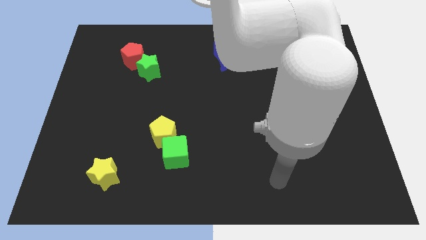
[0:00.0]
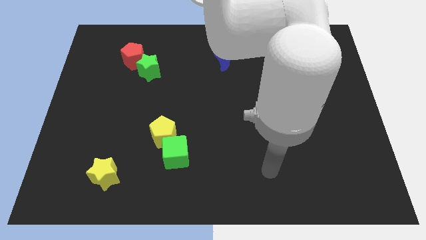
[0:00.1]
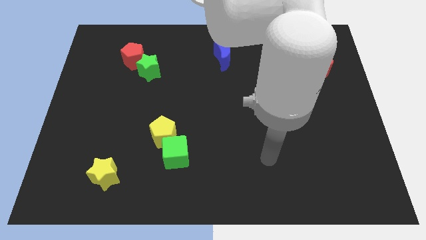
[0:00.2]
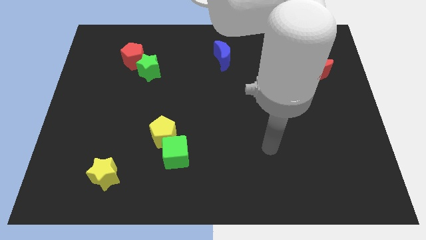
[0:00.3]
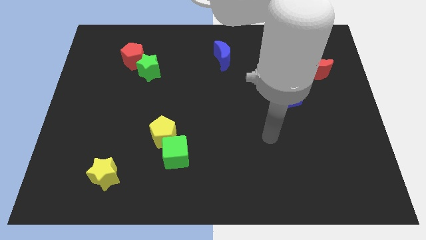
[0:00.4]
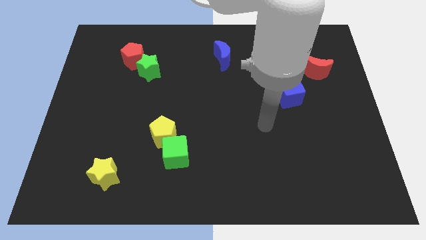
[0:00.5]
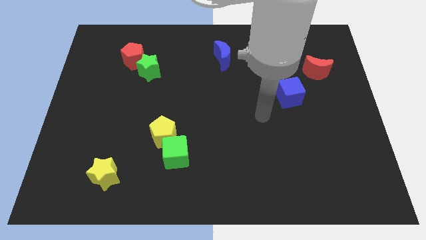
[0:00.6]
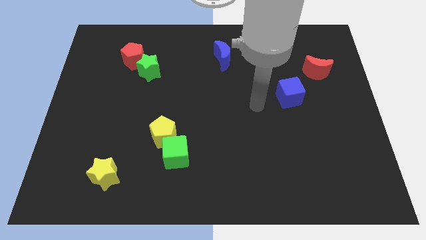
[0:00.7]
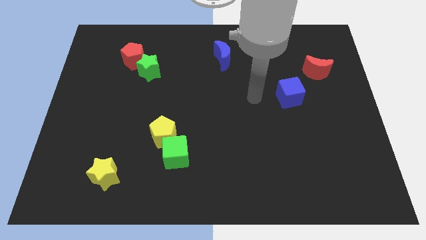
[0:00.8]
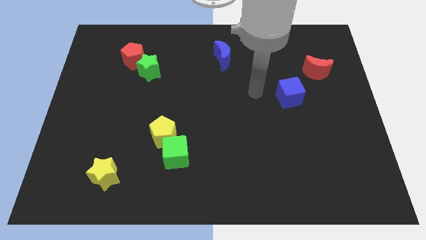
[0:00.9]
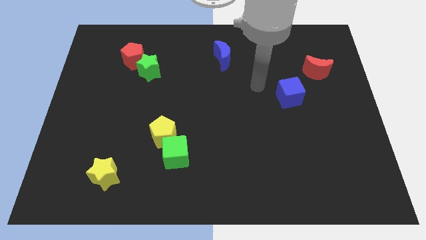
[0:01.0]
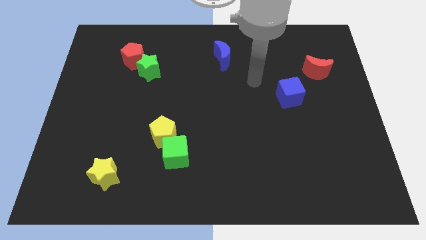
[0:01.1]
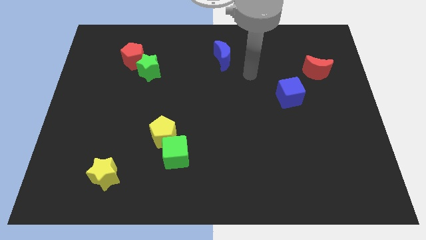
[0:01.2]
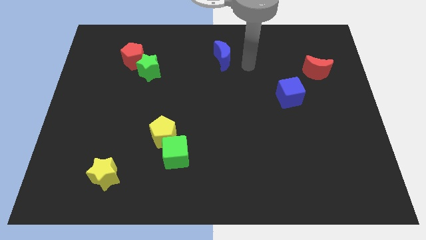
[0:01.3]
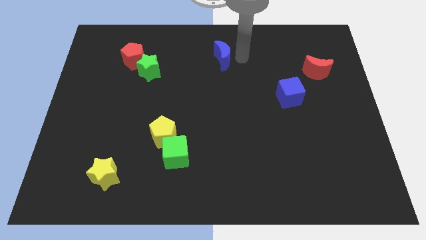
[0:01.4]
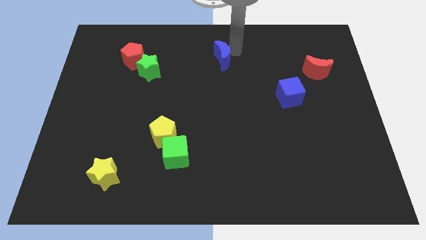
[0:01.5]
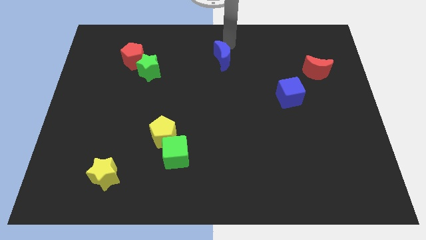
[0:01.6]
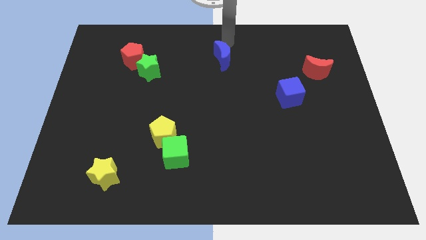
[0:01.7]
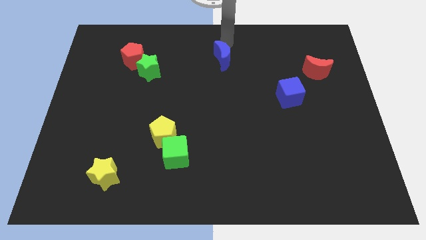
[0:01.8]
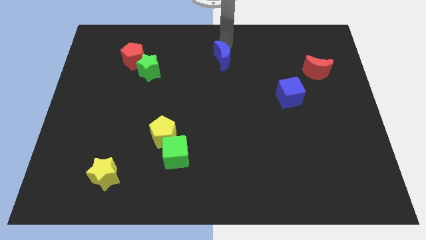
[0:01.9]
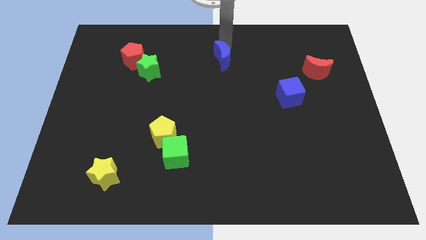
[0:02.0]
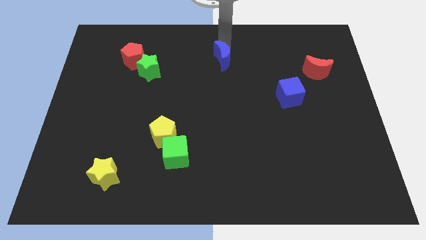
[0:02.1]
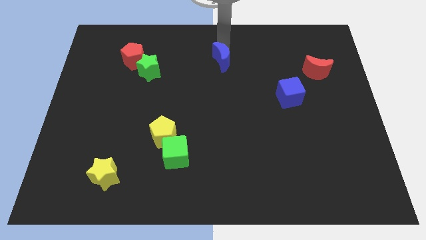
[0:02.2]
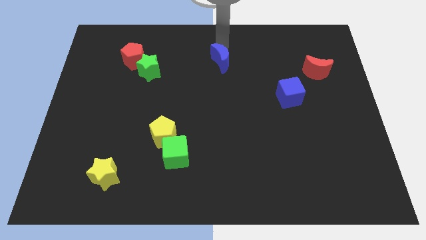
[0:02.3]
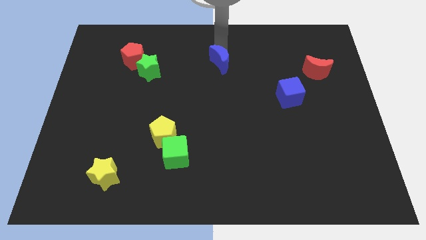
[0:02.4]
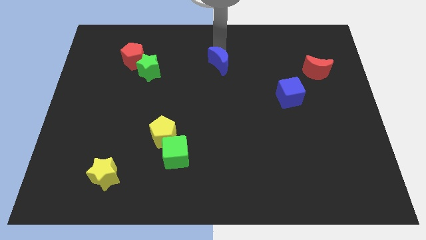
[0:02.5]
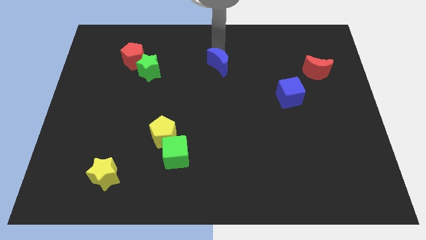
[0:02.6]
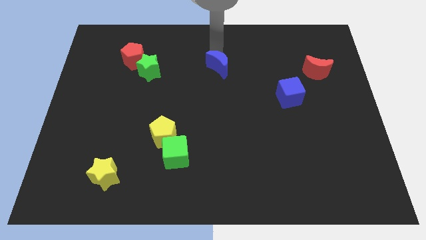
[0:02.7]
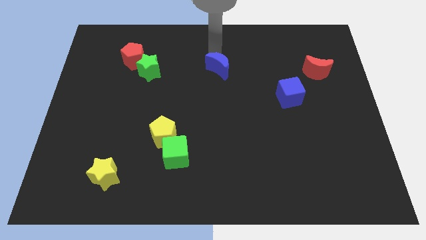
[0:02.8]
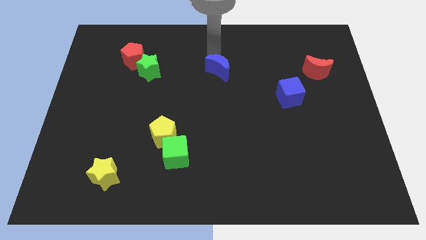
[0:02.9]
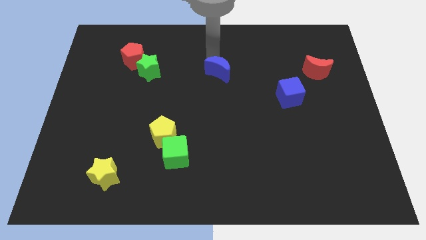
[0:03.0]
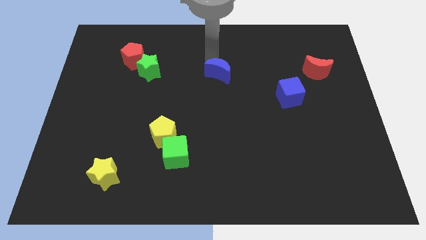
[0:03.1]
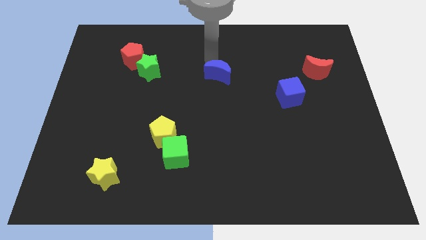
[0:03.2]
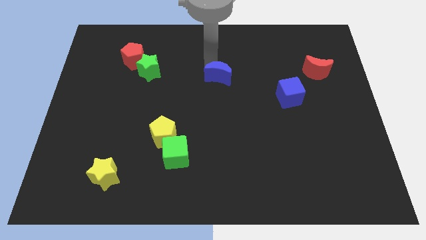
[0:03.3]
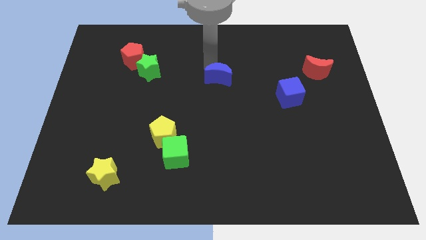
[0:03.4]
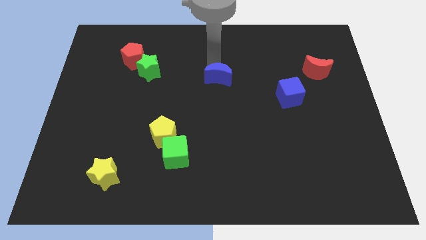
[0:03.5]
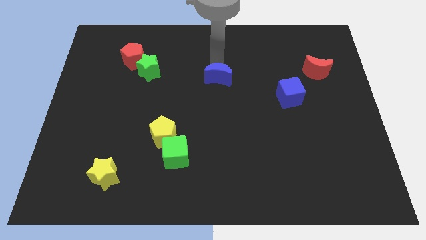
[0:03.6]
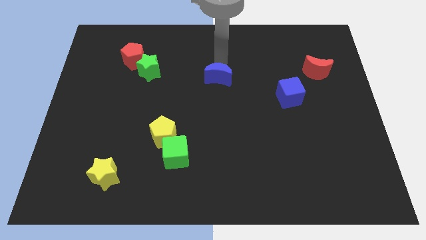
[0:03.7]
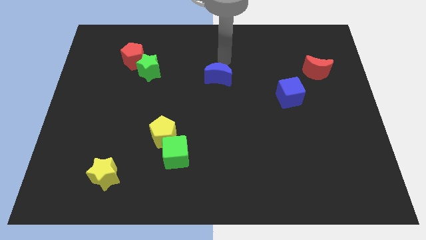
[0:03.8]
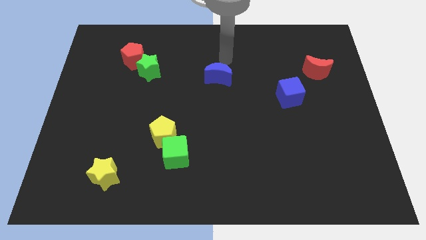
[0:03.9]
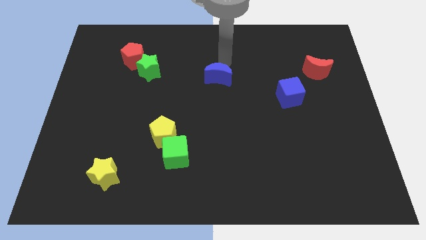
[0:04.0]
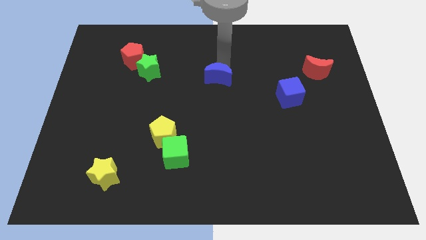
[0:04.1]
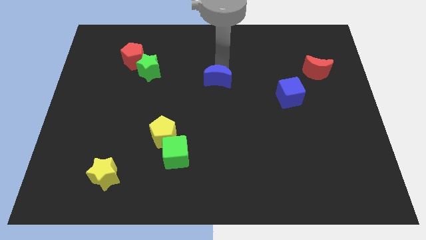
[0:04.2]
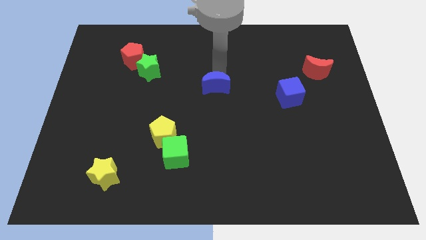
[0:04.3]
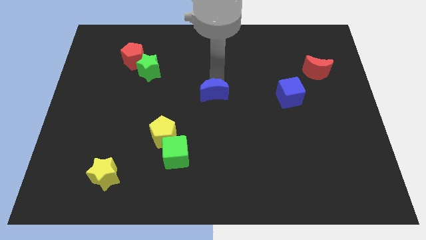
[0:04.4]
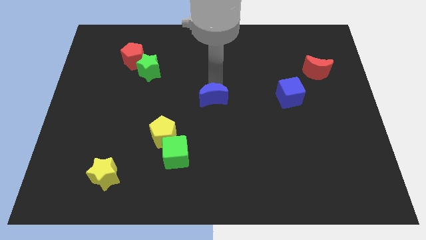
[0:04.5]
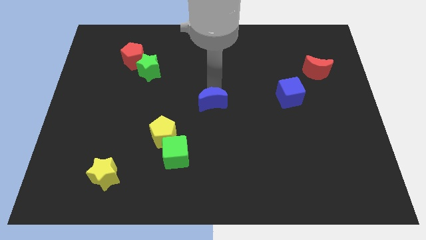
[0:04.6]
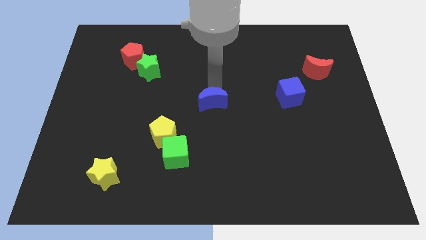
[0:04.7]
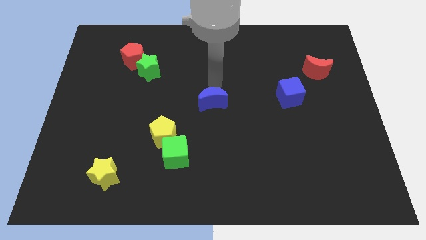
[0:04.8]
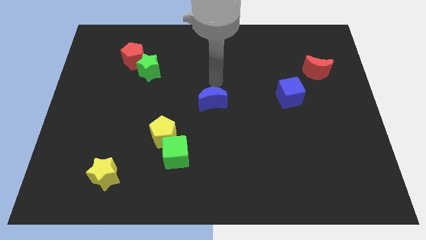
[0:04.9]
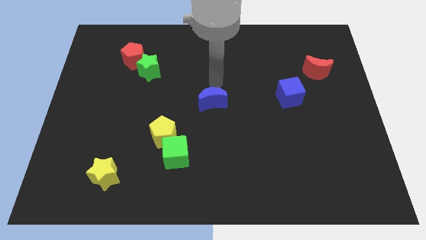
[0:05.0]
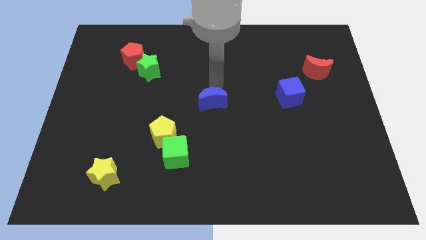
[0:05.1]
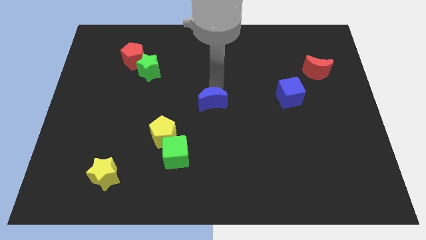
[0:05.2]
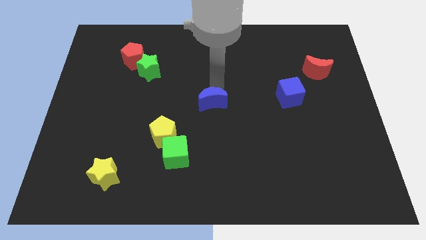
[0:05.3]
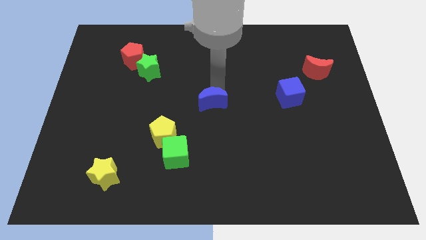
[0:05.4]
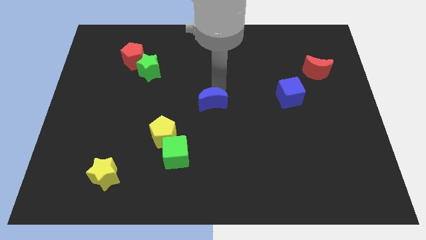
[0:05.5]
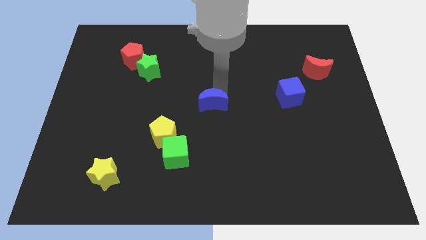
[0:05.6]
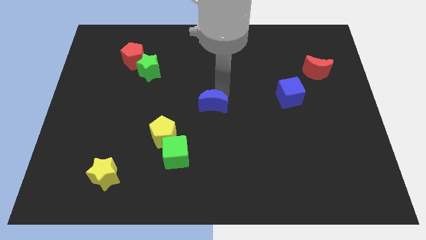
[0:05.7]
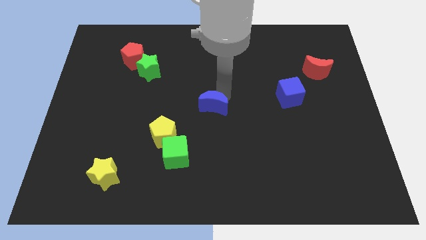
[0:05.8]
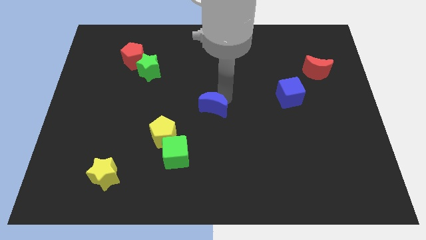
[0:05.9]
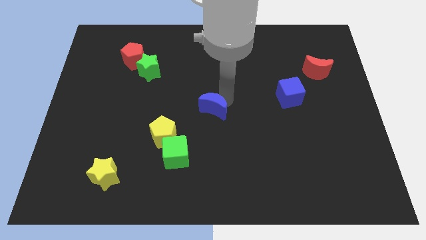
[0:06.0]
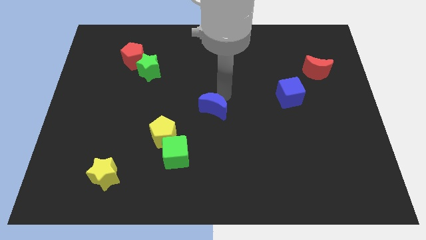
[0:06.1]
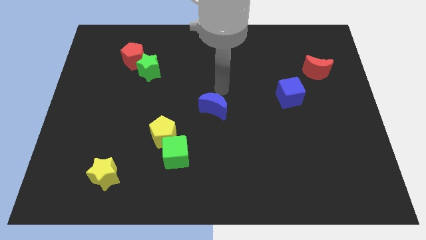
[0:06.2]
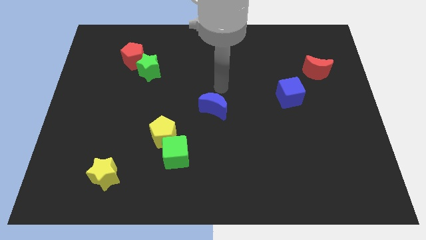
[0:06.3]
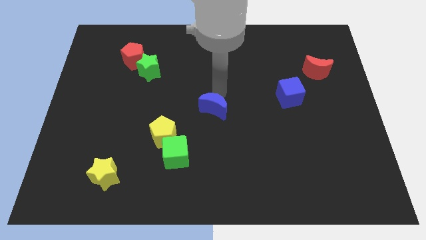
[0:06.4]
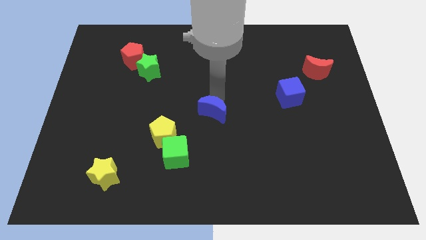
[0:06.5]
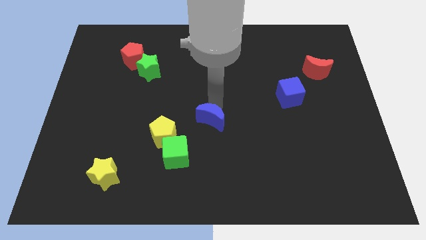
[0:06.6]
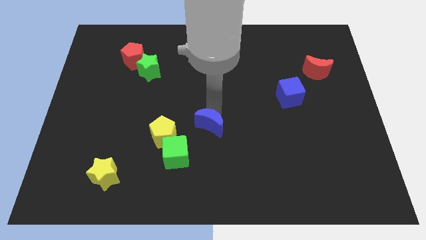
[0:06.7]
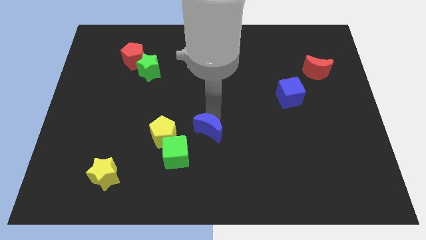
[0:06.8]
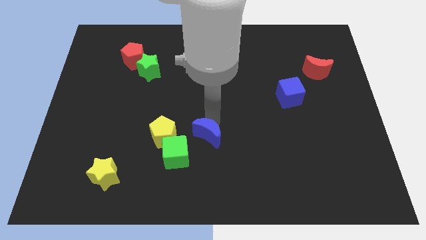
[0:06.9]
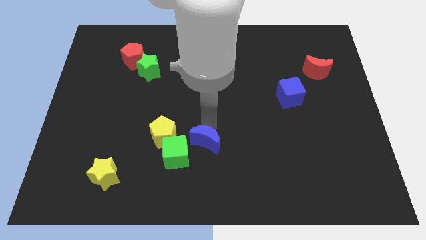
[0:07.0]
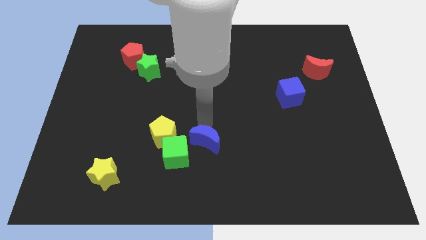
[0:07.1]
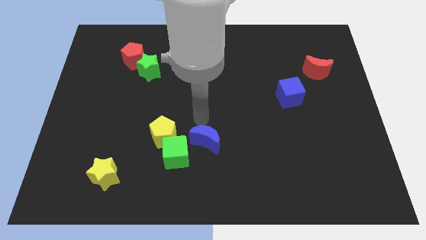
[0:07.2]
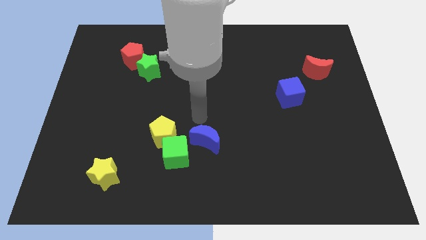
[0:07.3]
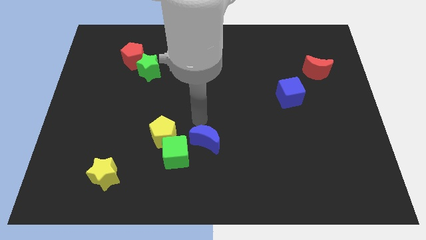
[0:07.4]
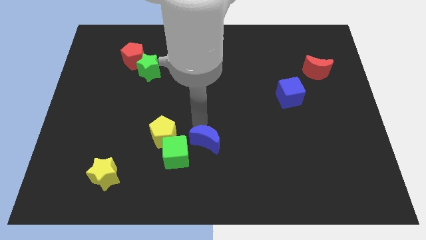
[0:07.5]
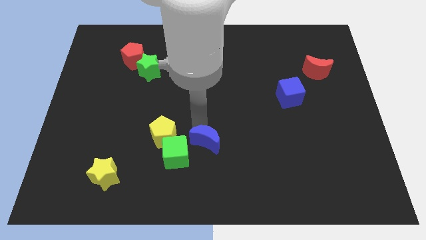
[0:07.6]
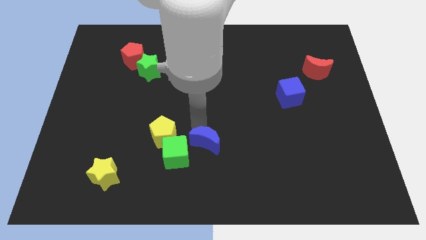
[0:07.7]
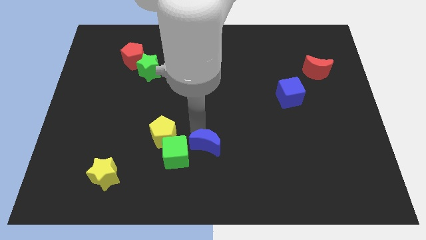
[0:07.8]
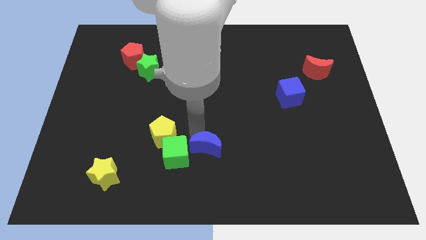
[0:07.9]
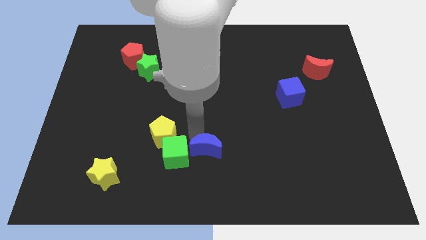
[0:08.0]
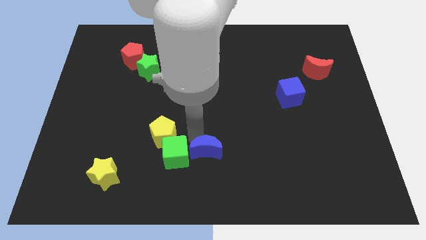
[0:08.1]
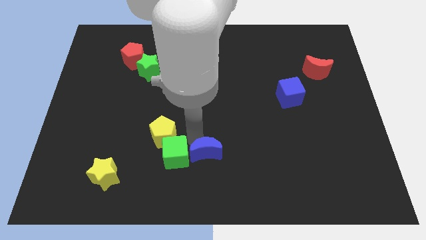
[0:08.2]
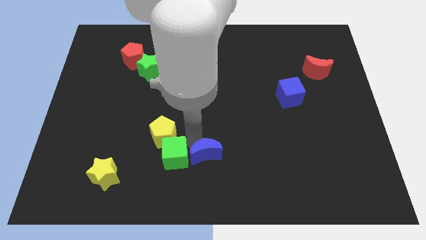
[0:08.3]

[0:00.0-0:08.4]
slide the blue moon to the bottom
